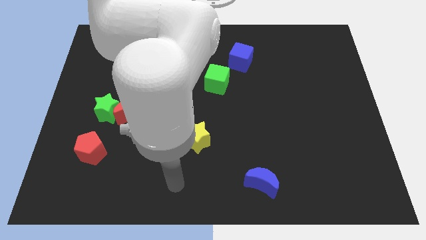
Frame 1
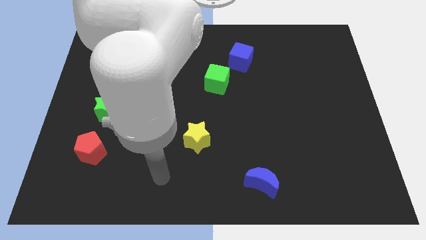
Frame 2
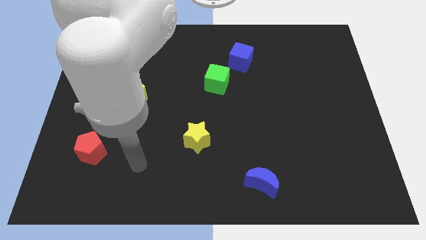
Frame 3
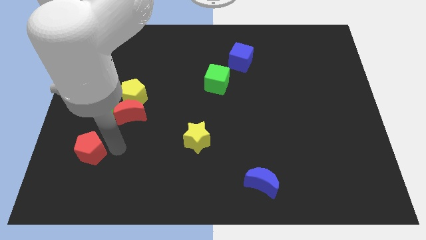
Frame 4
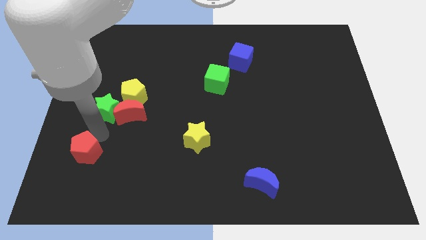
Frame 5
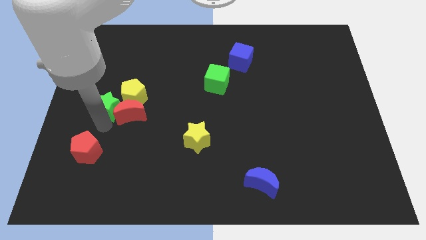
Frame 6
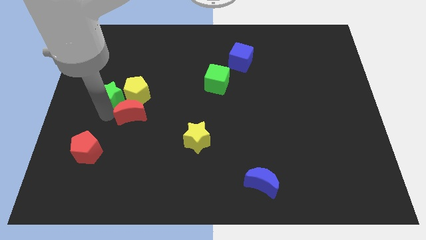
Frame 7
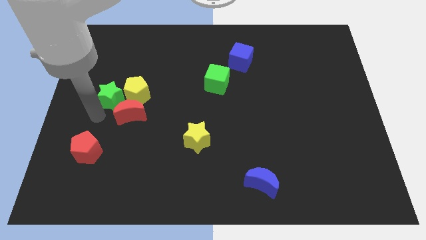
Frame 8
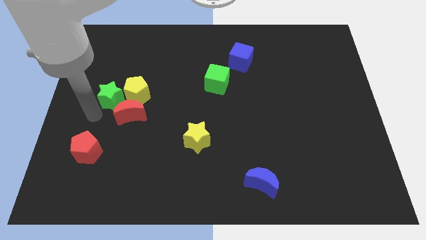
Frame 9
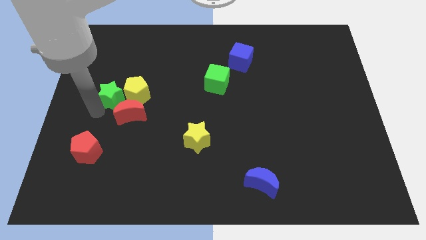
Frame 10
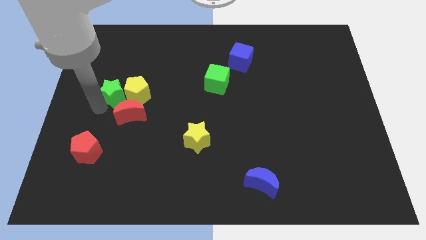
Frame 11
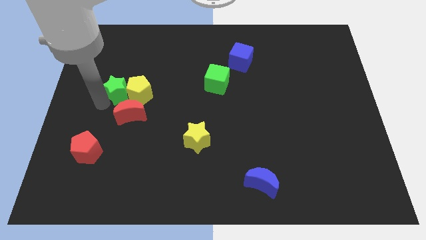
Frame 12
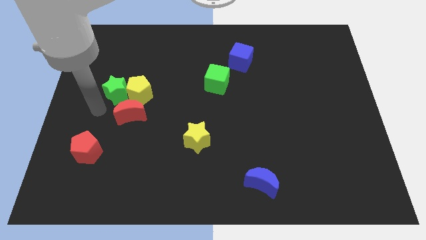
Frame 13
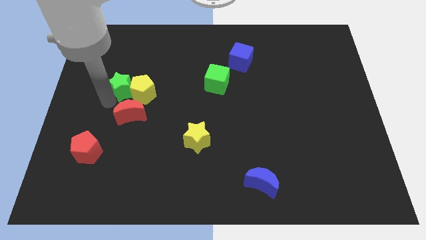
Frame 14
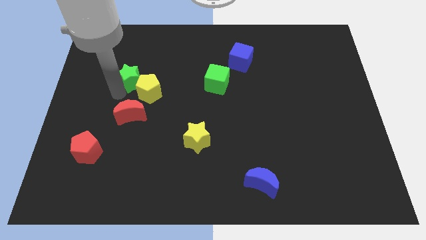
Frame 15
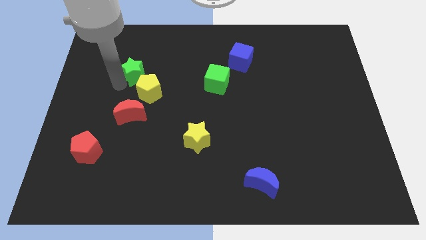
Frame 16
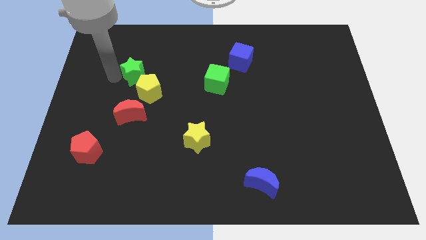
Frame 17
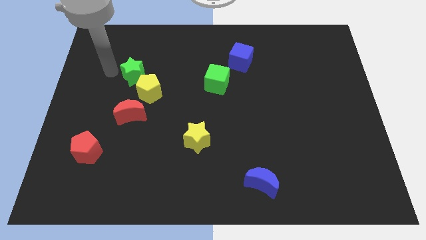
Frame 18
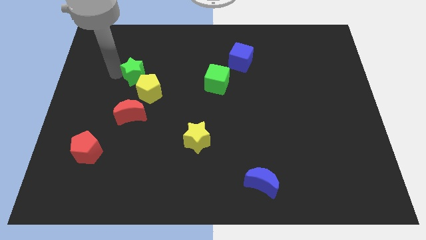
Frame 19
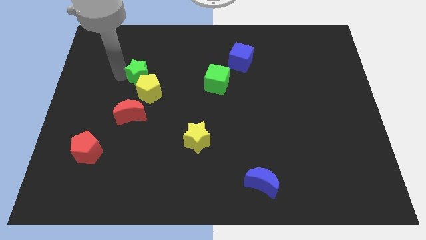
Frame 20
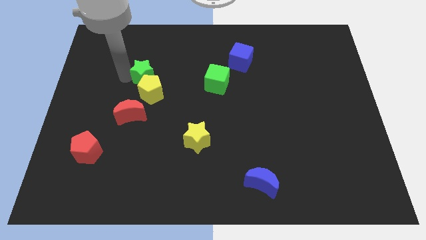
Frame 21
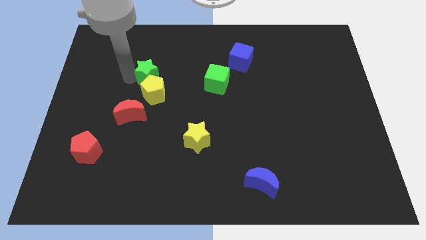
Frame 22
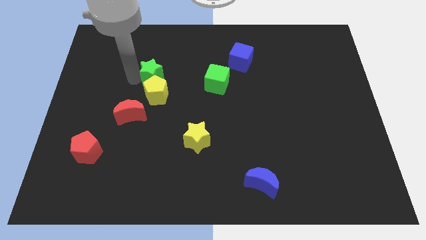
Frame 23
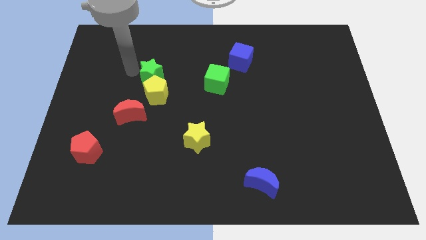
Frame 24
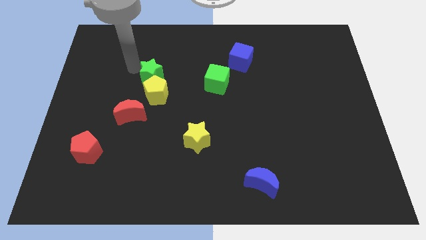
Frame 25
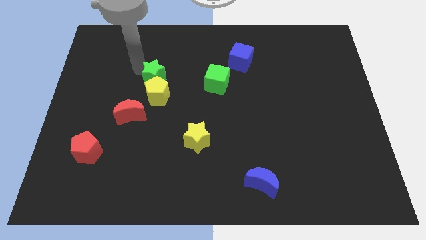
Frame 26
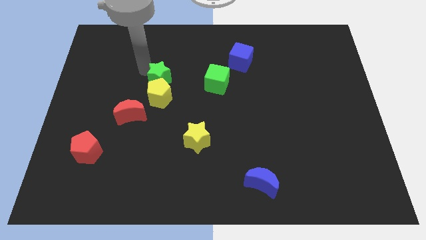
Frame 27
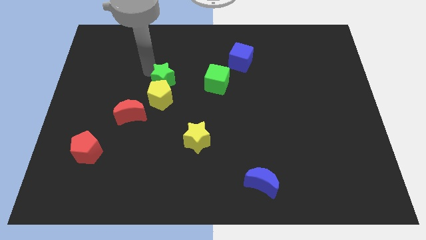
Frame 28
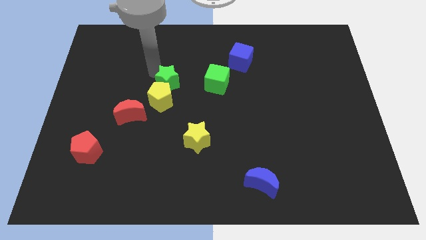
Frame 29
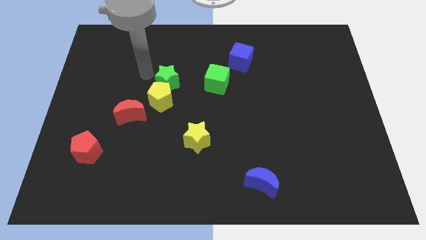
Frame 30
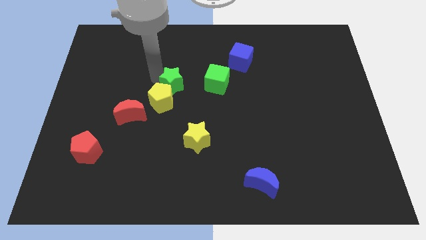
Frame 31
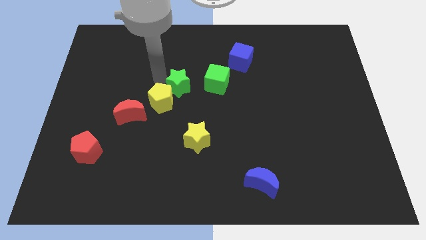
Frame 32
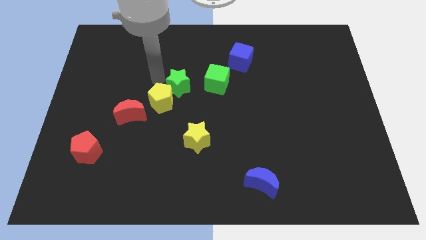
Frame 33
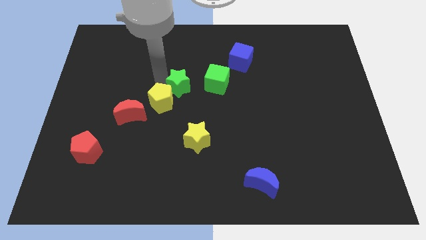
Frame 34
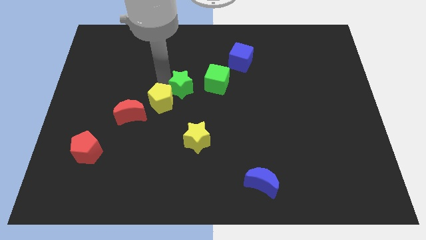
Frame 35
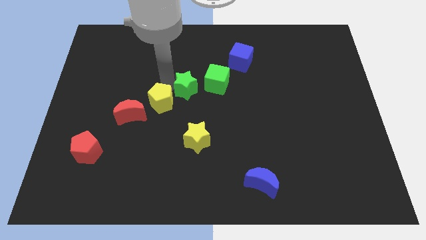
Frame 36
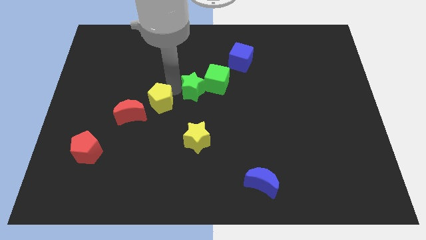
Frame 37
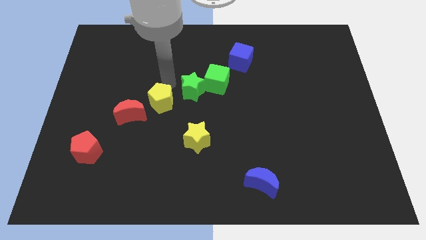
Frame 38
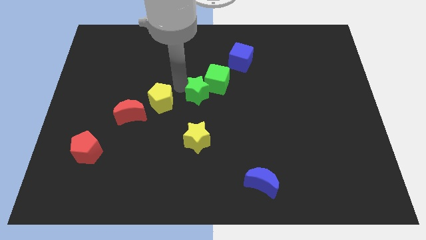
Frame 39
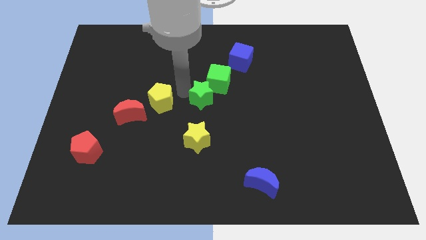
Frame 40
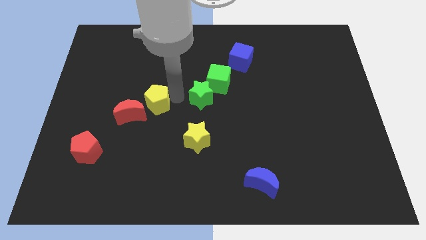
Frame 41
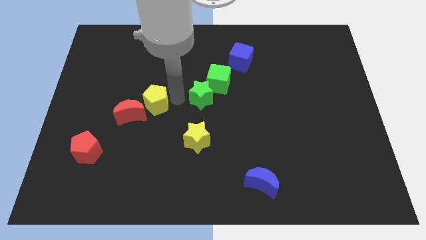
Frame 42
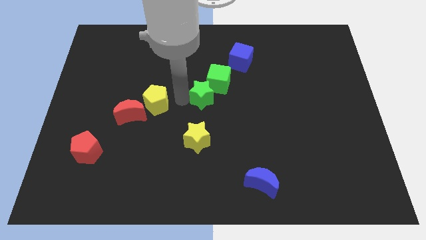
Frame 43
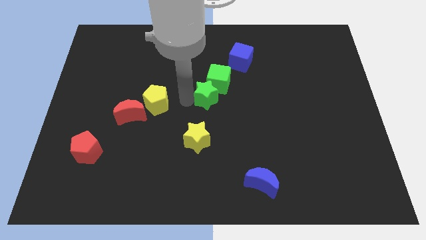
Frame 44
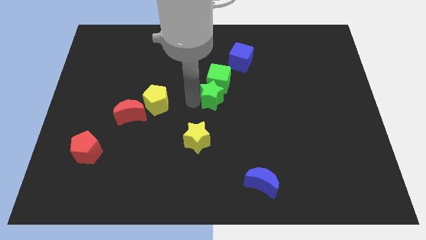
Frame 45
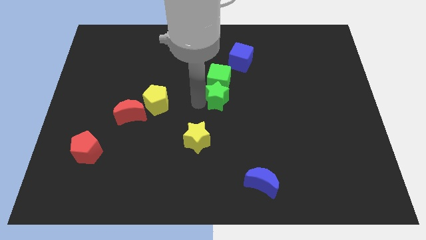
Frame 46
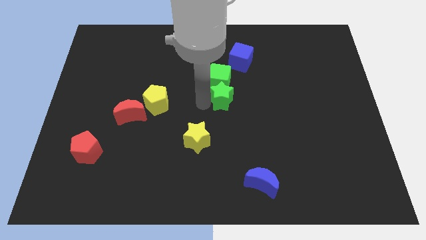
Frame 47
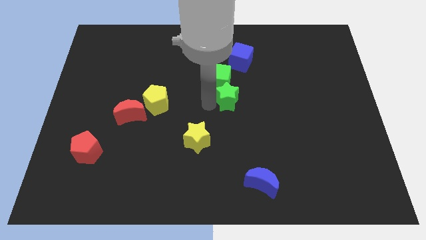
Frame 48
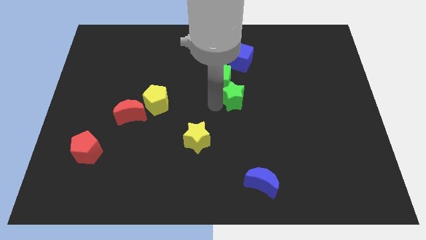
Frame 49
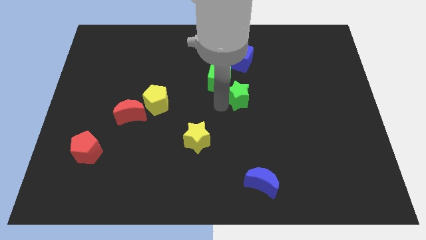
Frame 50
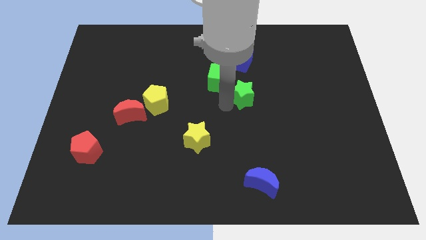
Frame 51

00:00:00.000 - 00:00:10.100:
put the green star just right of the green cube

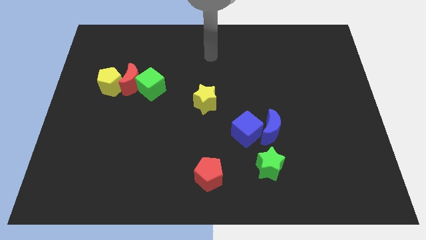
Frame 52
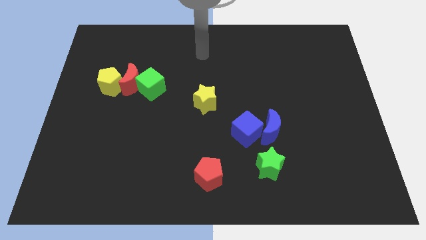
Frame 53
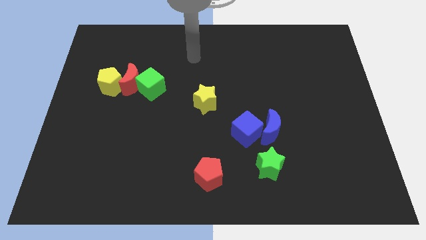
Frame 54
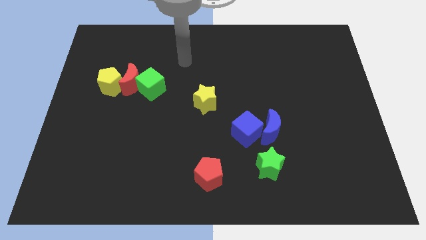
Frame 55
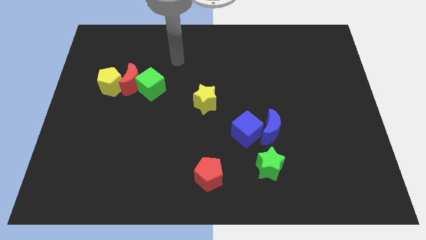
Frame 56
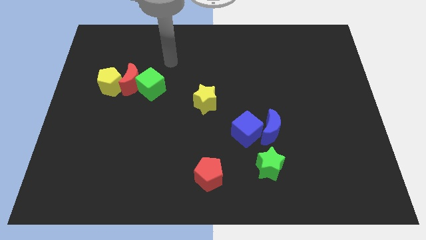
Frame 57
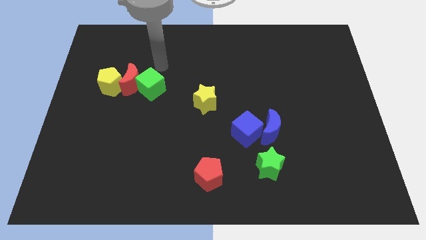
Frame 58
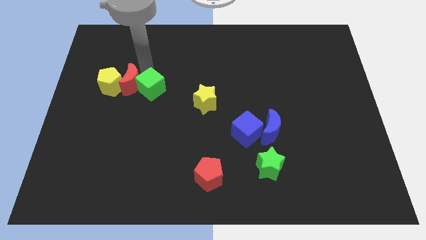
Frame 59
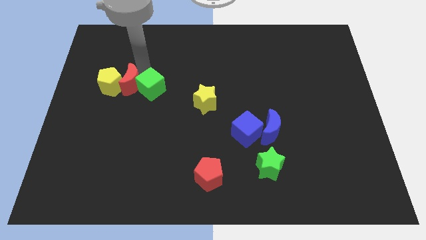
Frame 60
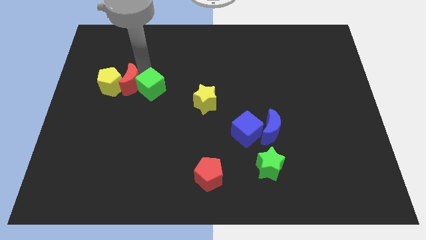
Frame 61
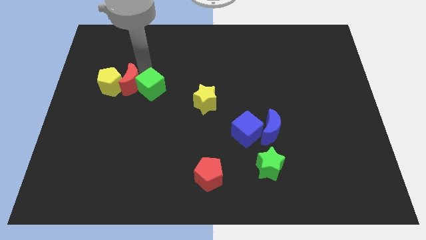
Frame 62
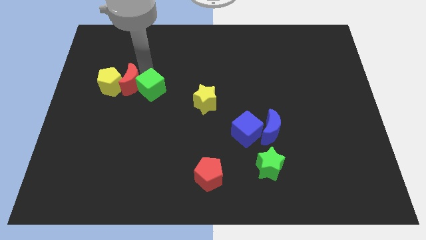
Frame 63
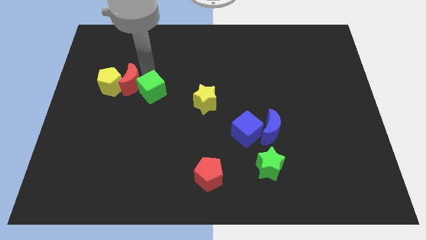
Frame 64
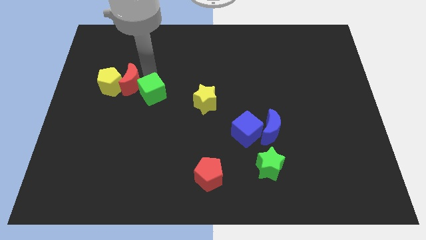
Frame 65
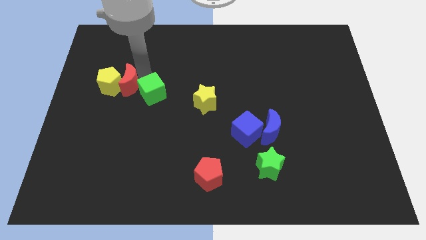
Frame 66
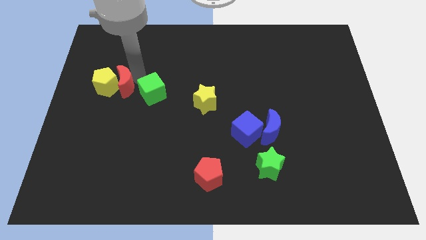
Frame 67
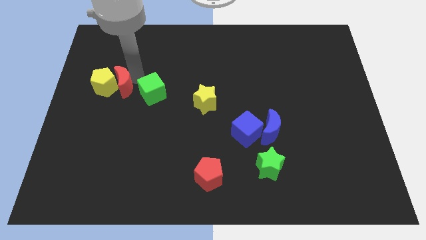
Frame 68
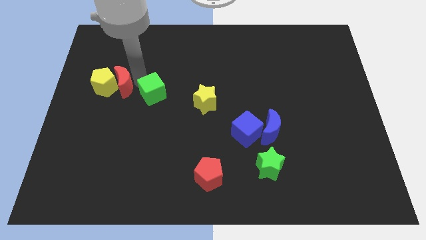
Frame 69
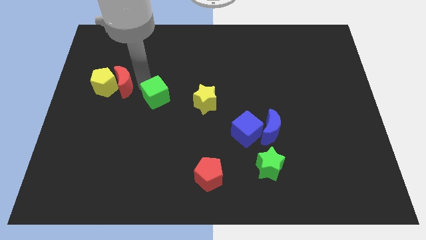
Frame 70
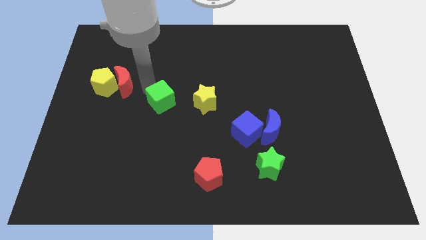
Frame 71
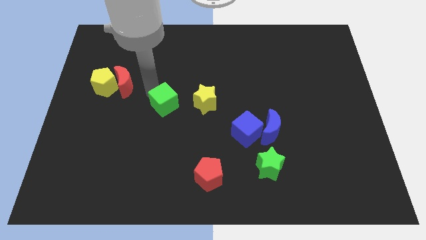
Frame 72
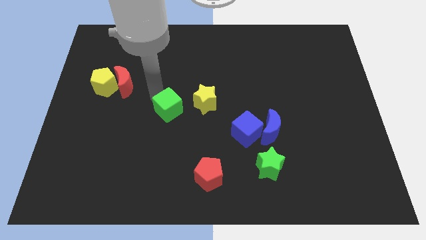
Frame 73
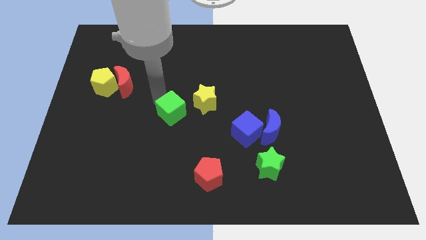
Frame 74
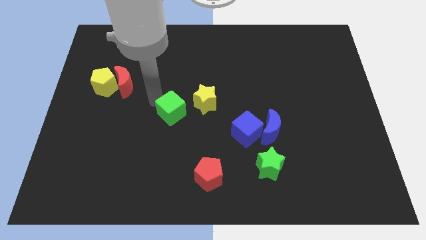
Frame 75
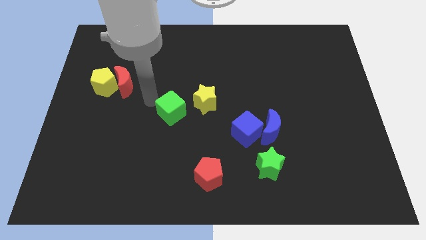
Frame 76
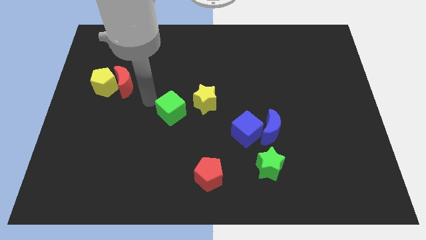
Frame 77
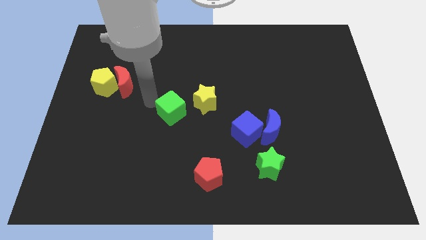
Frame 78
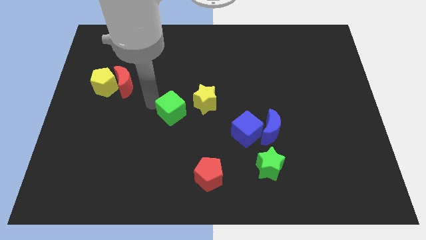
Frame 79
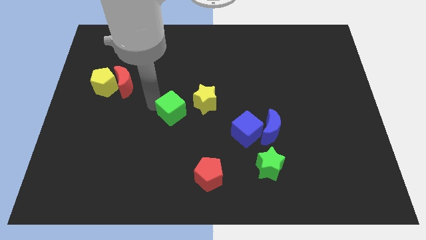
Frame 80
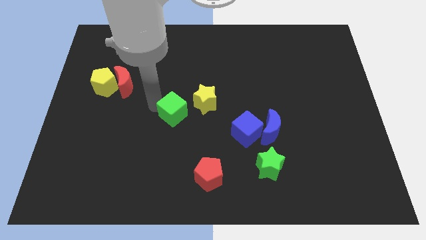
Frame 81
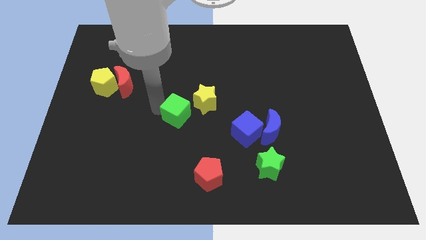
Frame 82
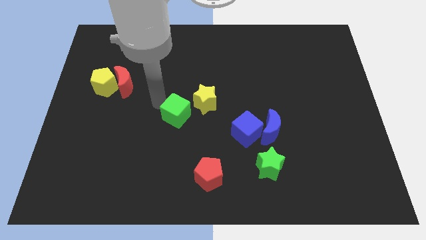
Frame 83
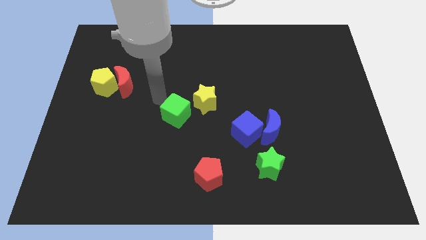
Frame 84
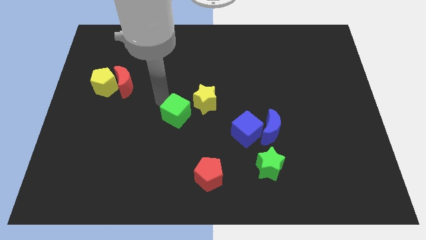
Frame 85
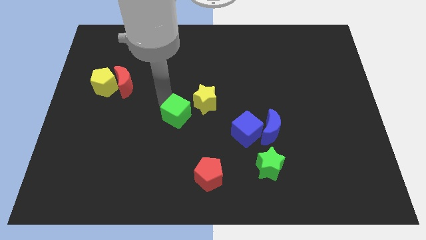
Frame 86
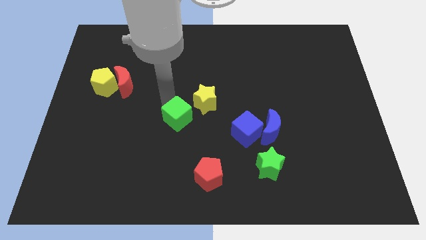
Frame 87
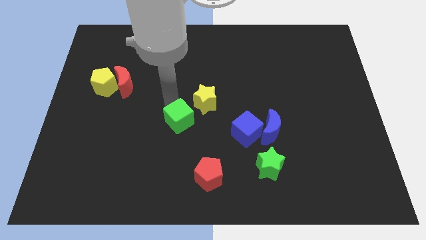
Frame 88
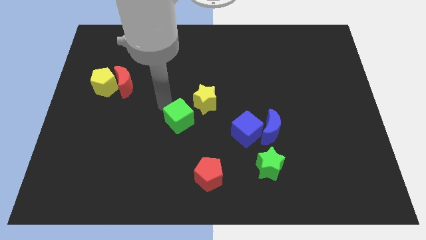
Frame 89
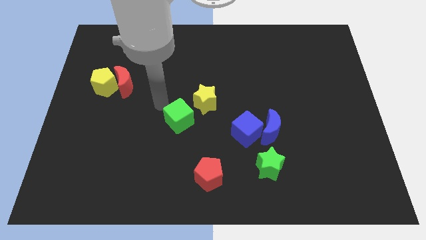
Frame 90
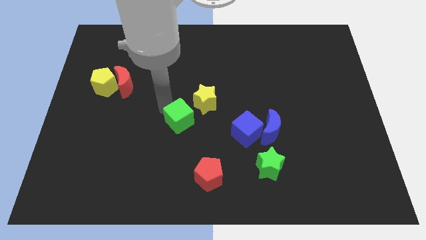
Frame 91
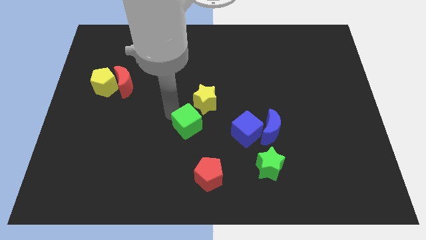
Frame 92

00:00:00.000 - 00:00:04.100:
put the green cube to the bottom of the yellow star
